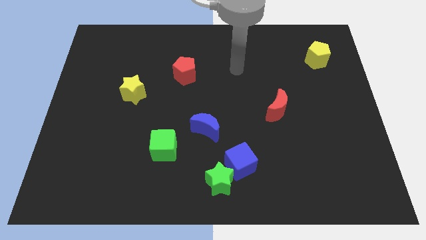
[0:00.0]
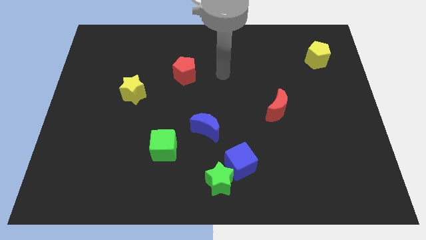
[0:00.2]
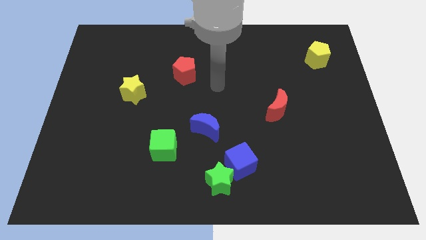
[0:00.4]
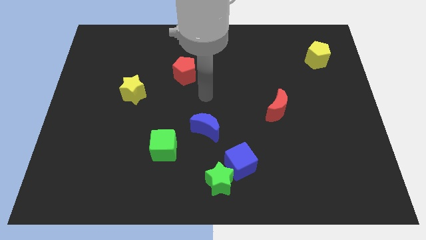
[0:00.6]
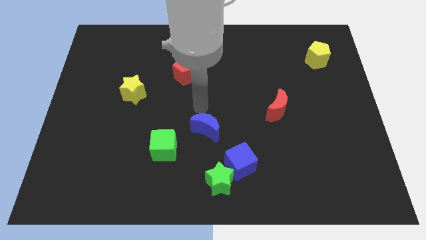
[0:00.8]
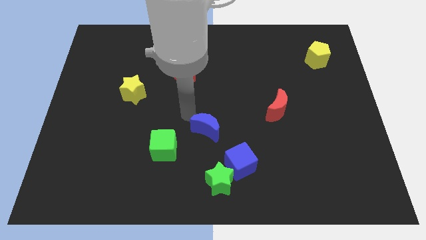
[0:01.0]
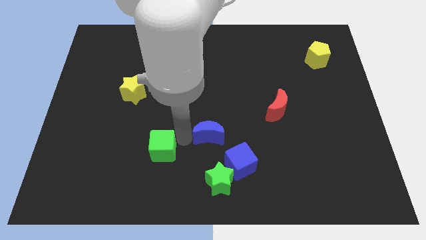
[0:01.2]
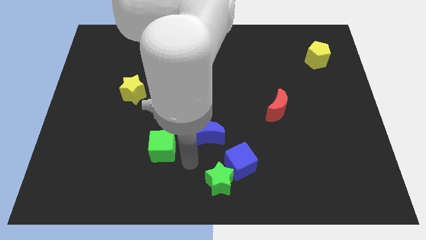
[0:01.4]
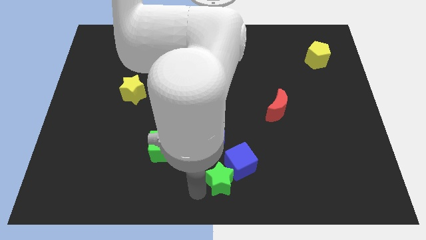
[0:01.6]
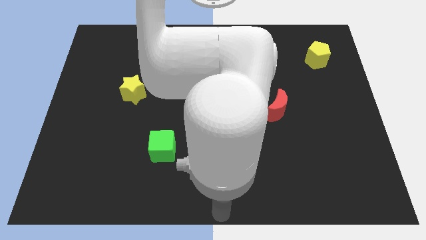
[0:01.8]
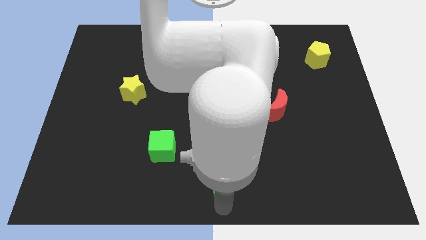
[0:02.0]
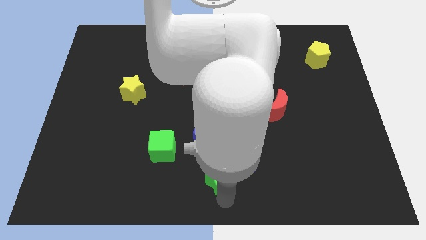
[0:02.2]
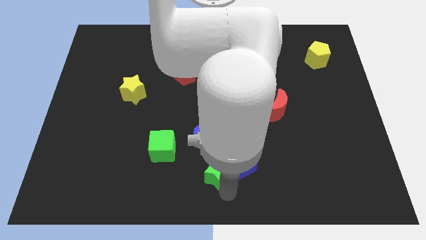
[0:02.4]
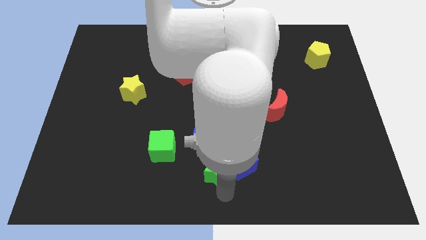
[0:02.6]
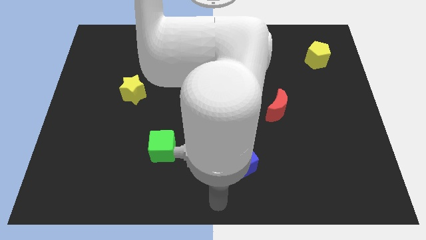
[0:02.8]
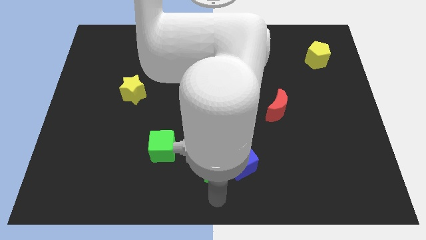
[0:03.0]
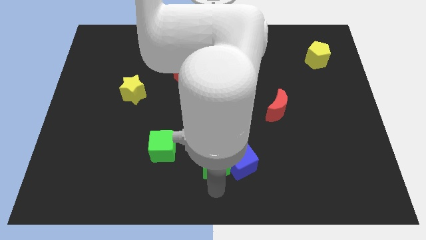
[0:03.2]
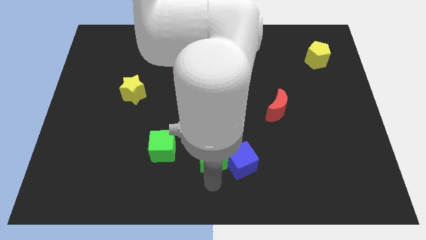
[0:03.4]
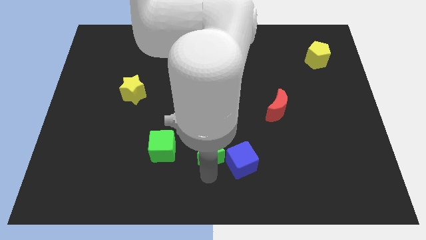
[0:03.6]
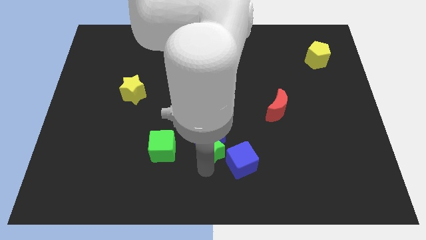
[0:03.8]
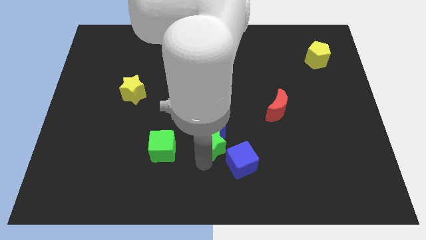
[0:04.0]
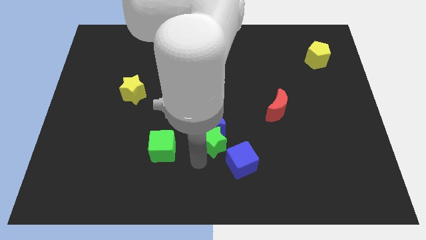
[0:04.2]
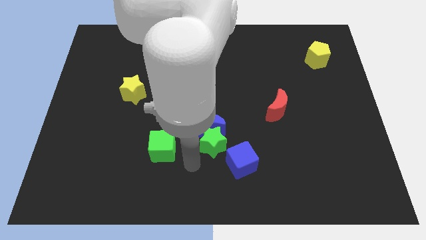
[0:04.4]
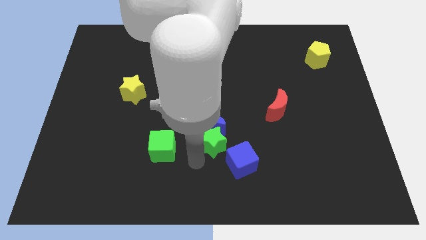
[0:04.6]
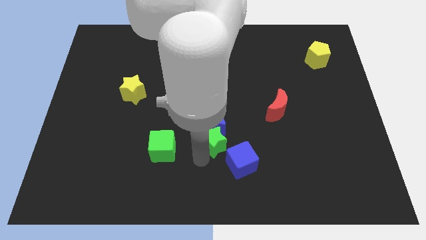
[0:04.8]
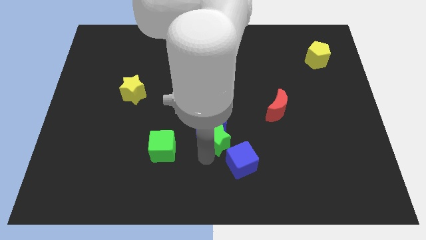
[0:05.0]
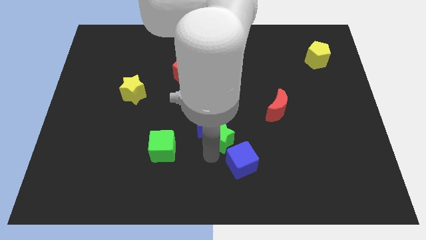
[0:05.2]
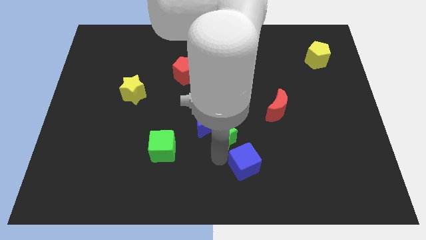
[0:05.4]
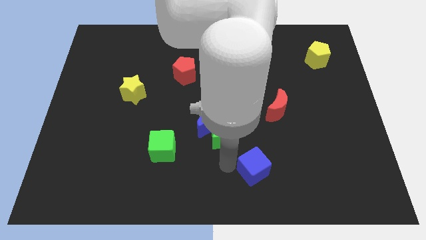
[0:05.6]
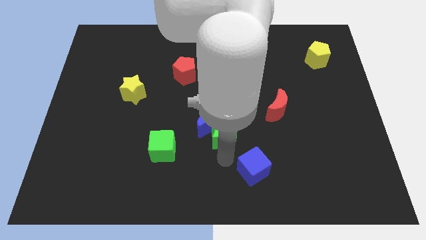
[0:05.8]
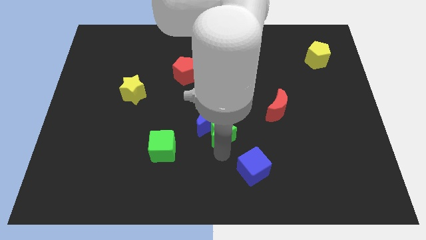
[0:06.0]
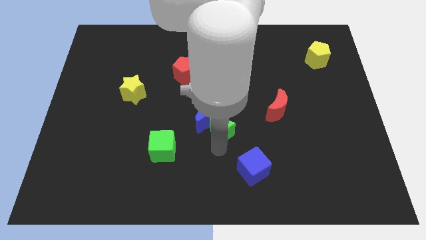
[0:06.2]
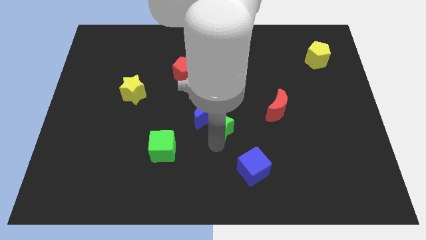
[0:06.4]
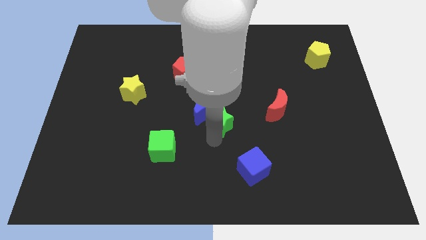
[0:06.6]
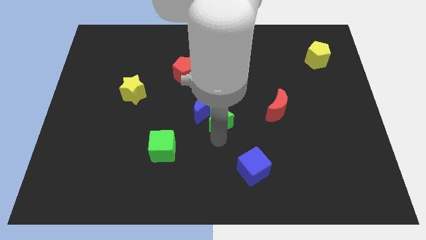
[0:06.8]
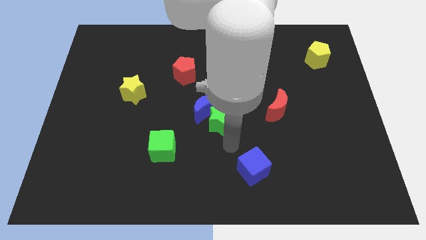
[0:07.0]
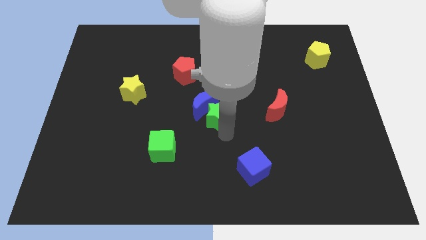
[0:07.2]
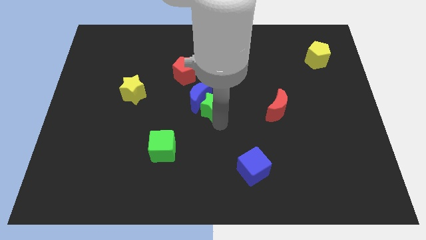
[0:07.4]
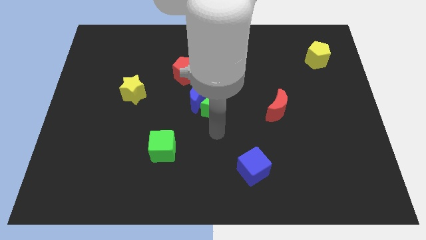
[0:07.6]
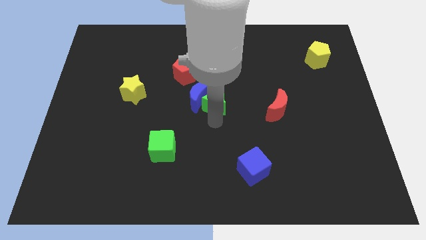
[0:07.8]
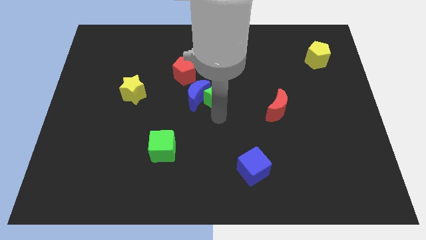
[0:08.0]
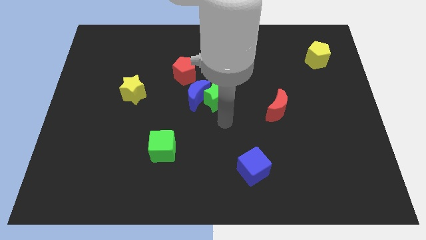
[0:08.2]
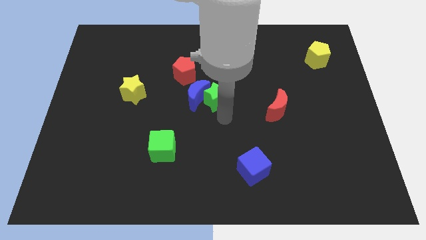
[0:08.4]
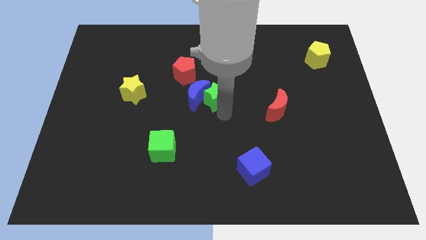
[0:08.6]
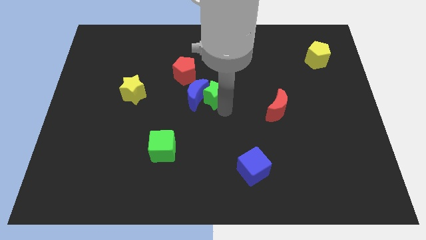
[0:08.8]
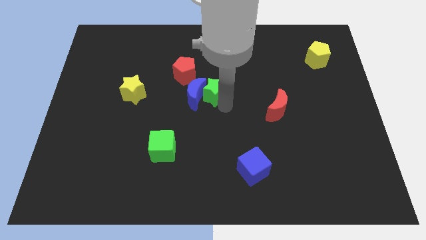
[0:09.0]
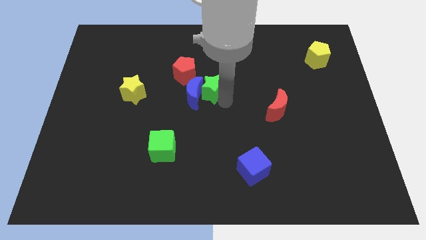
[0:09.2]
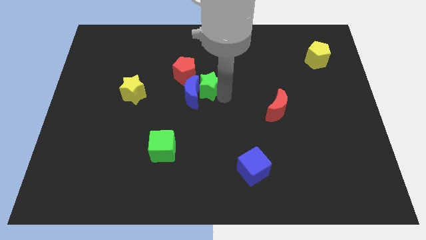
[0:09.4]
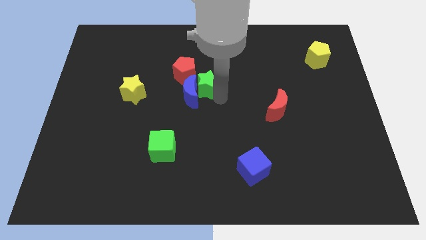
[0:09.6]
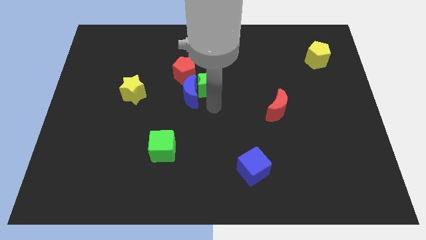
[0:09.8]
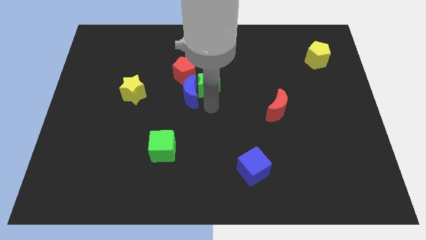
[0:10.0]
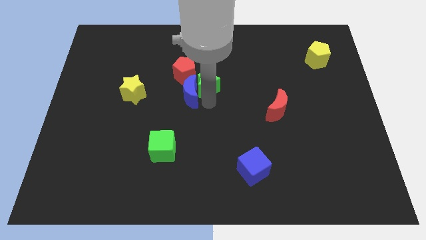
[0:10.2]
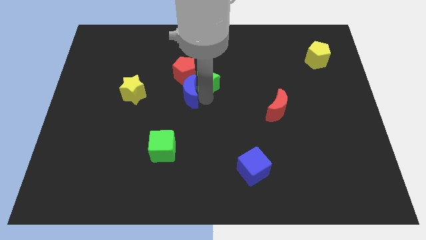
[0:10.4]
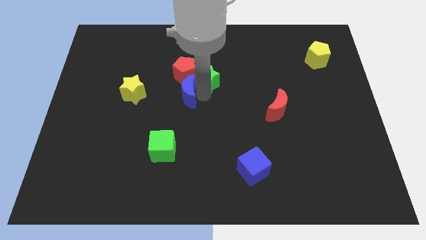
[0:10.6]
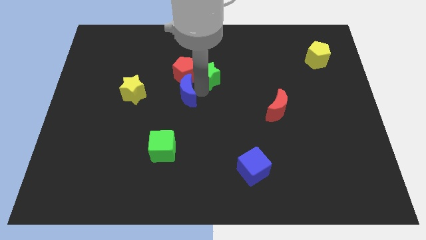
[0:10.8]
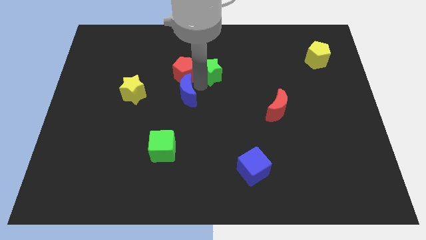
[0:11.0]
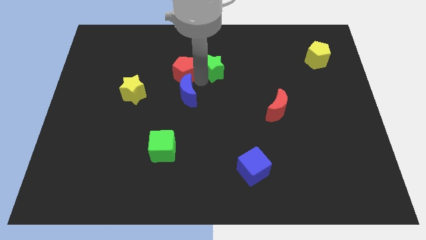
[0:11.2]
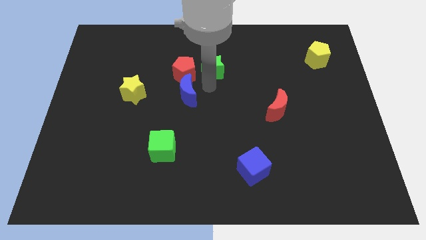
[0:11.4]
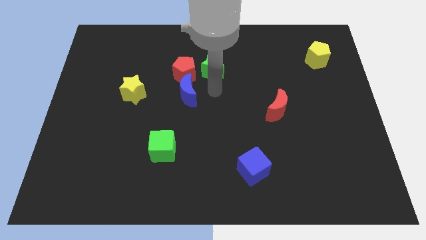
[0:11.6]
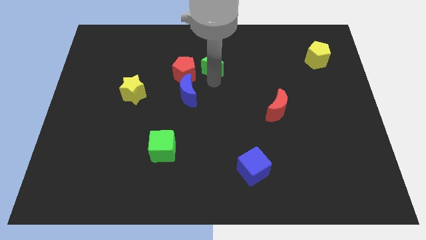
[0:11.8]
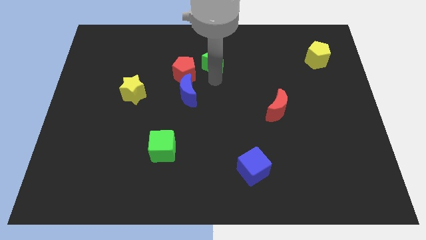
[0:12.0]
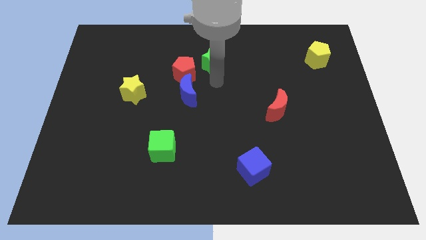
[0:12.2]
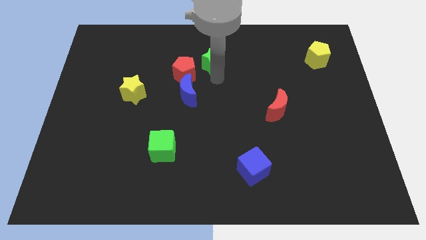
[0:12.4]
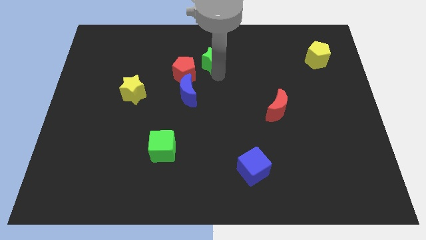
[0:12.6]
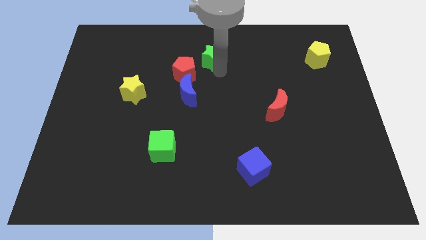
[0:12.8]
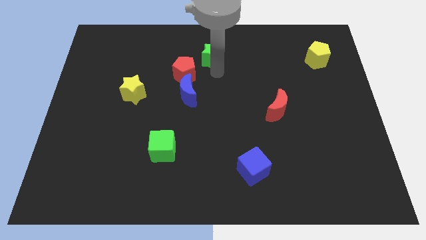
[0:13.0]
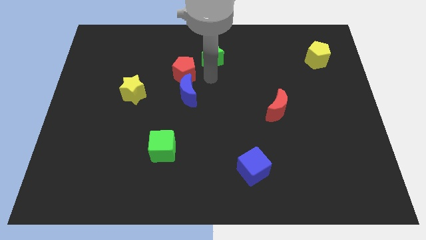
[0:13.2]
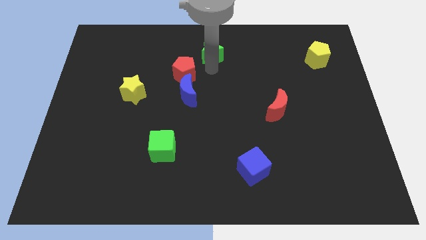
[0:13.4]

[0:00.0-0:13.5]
put the green star to the top side
